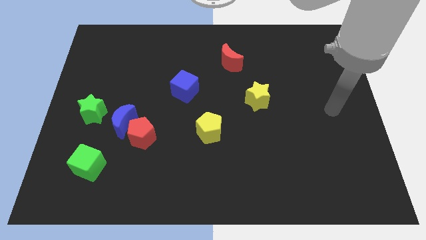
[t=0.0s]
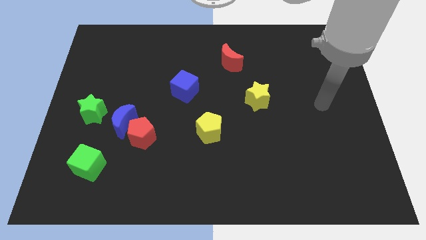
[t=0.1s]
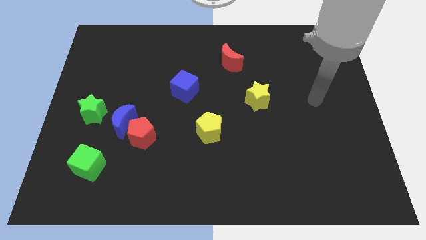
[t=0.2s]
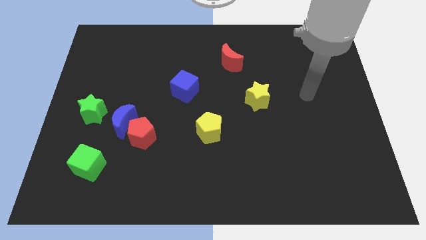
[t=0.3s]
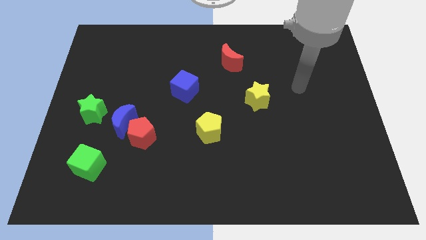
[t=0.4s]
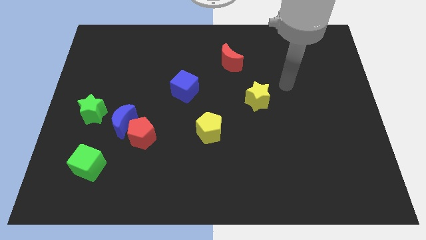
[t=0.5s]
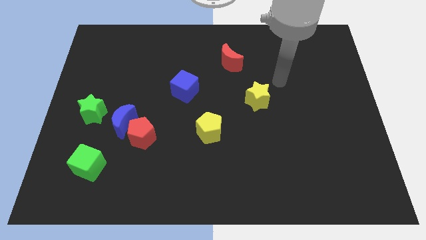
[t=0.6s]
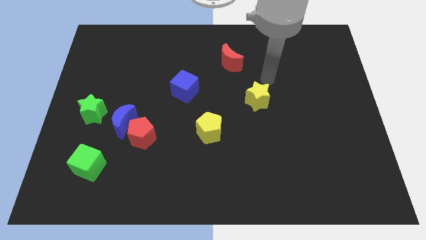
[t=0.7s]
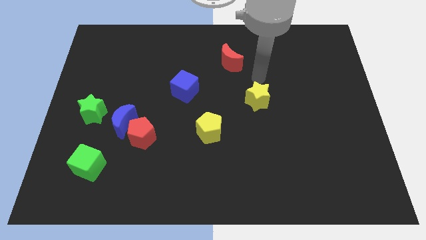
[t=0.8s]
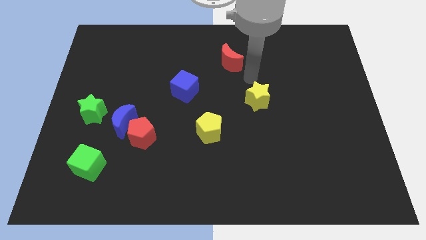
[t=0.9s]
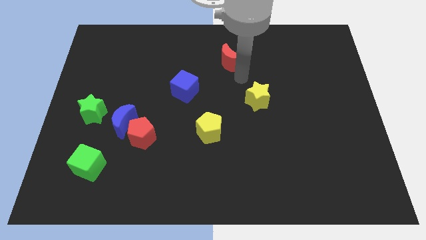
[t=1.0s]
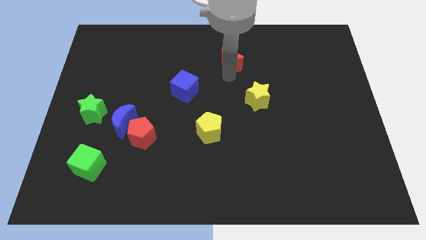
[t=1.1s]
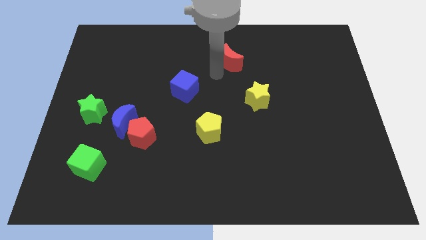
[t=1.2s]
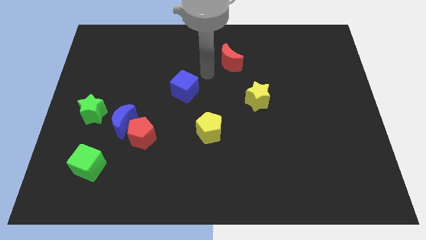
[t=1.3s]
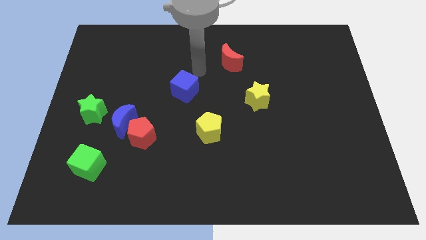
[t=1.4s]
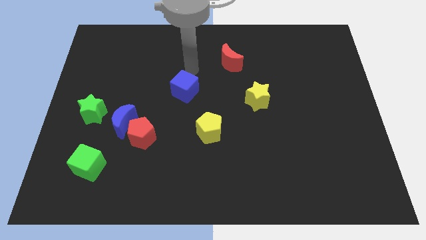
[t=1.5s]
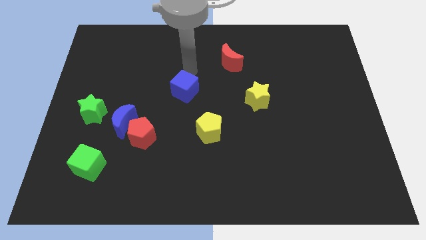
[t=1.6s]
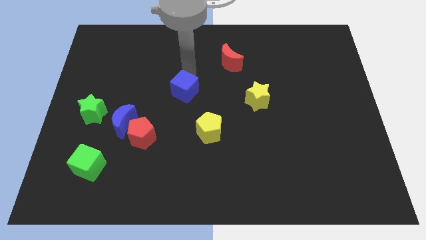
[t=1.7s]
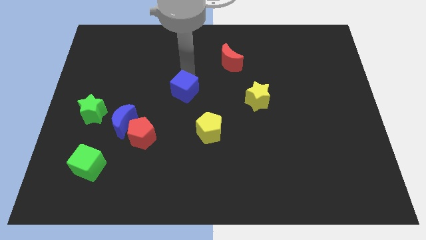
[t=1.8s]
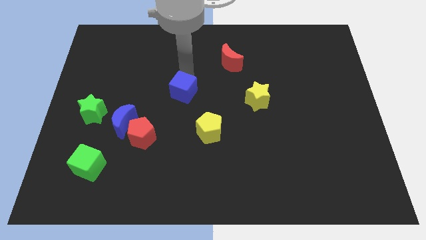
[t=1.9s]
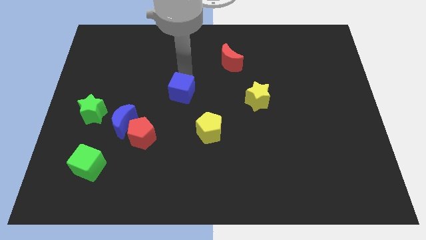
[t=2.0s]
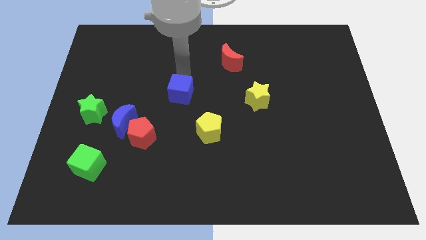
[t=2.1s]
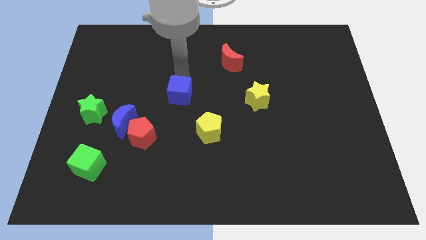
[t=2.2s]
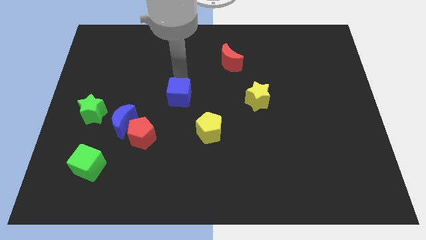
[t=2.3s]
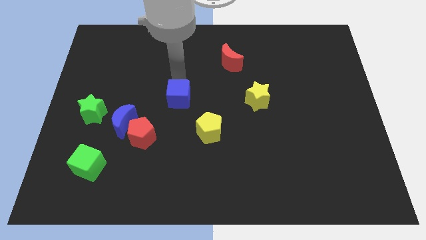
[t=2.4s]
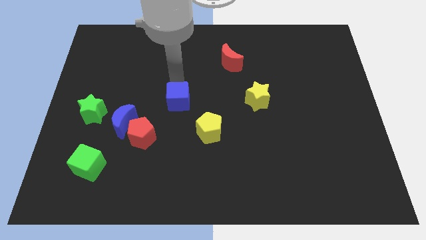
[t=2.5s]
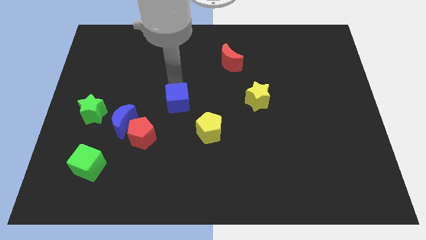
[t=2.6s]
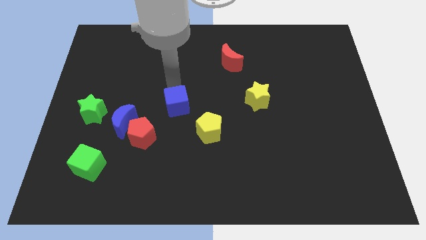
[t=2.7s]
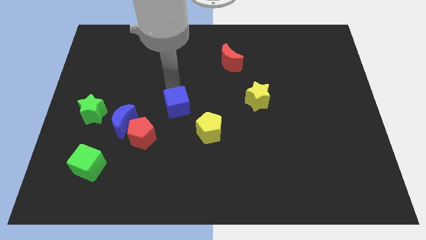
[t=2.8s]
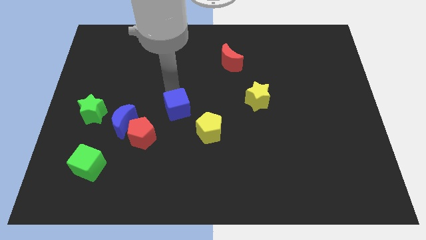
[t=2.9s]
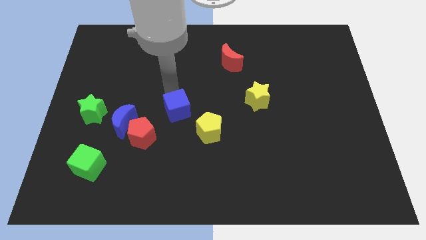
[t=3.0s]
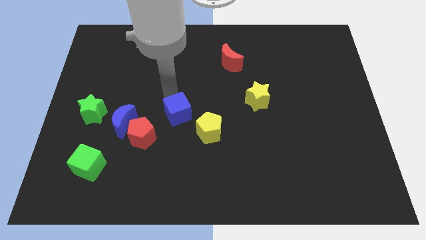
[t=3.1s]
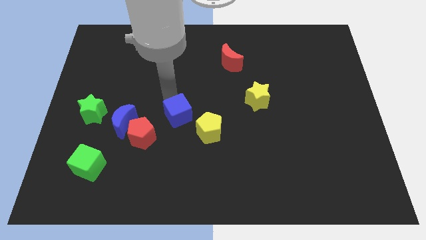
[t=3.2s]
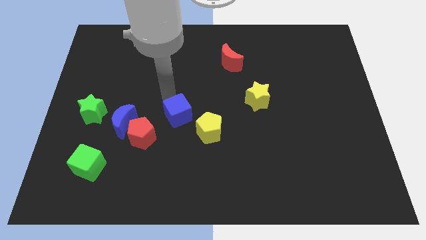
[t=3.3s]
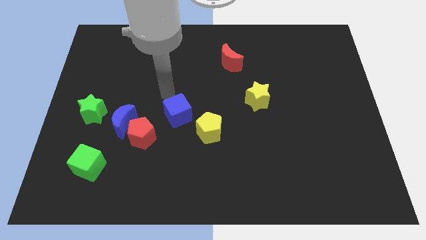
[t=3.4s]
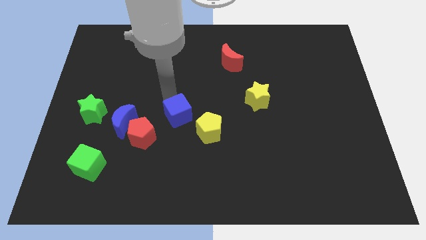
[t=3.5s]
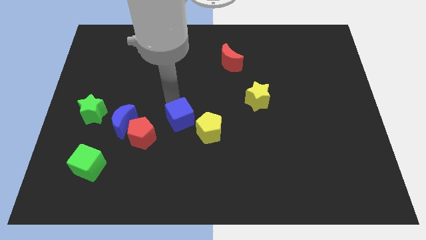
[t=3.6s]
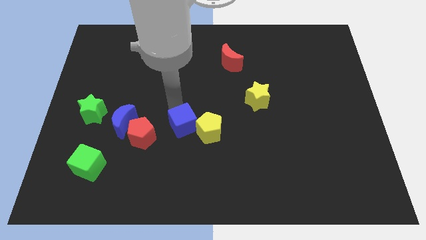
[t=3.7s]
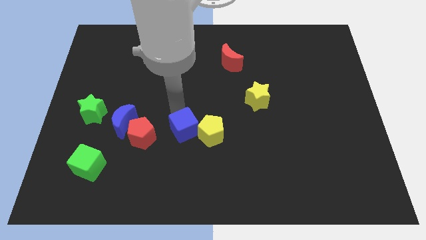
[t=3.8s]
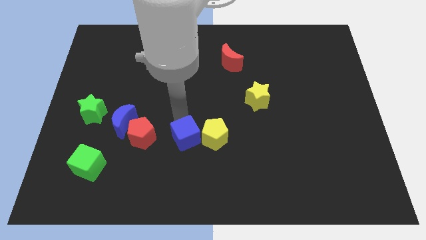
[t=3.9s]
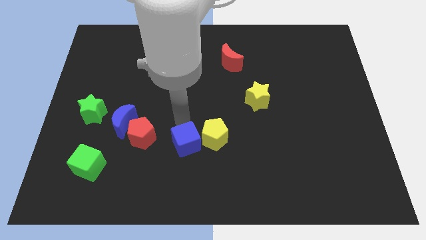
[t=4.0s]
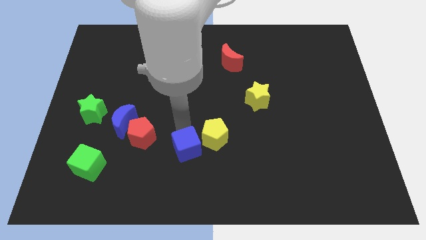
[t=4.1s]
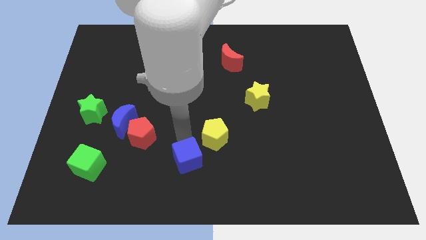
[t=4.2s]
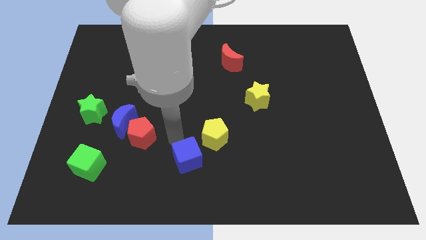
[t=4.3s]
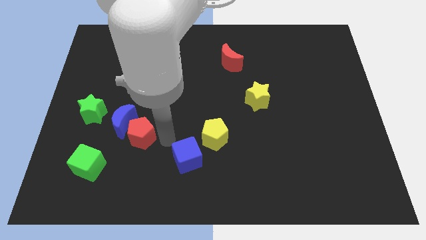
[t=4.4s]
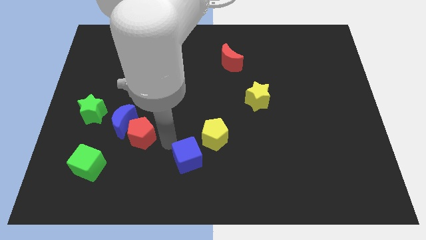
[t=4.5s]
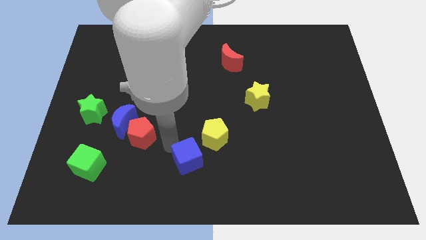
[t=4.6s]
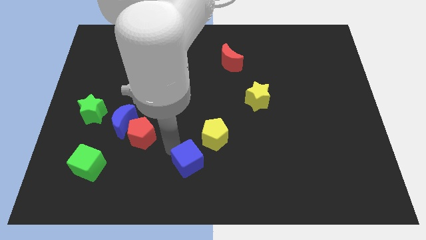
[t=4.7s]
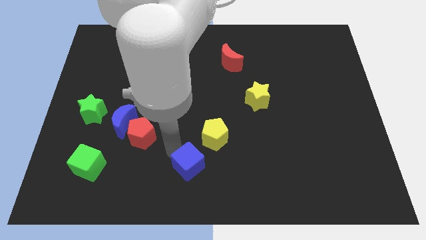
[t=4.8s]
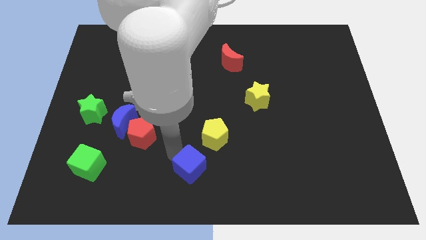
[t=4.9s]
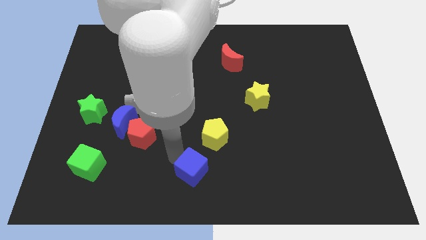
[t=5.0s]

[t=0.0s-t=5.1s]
put the blue cube to the bottom of the yellow pentagon

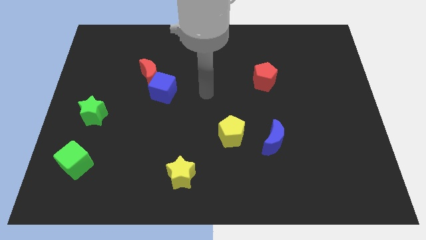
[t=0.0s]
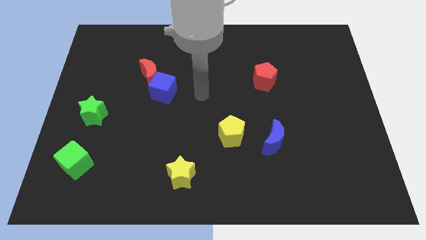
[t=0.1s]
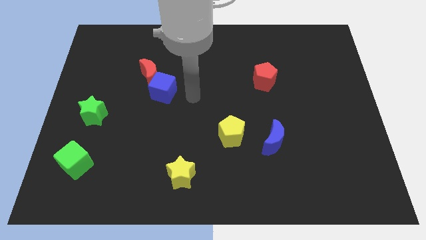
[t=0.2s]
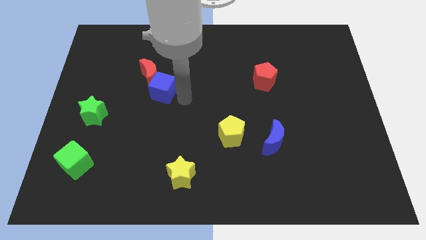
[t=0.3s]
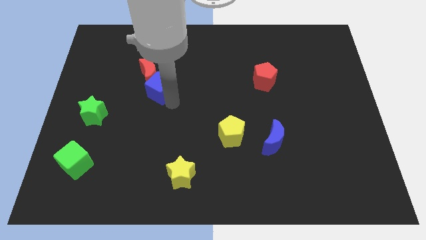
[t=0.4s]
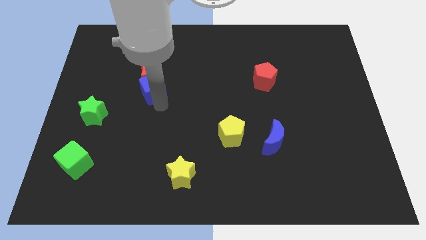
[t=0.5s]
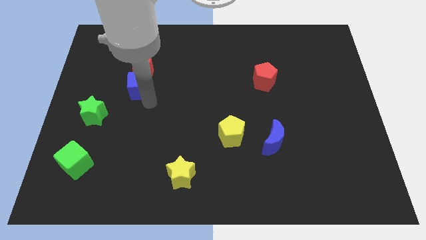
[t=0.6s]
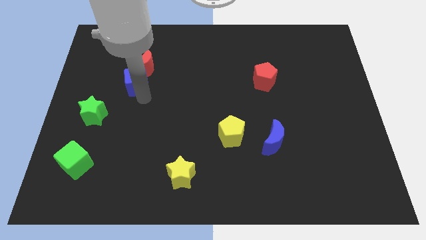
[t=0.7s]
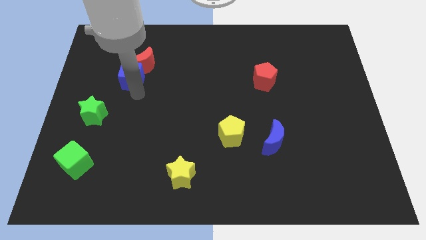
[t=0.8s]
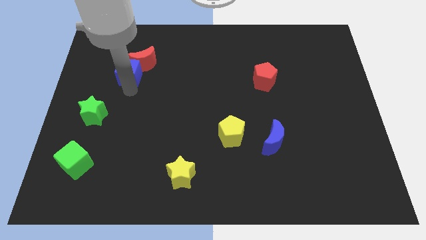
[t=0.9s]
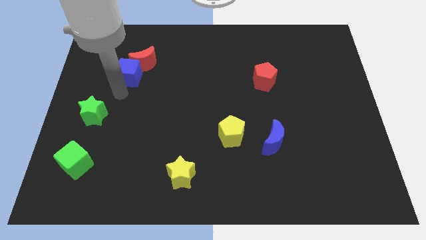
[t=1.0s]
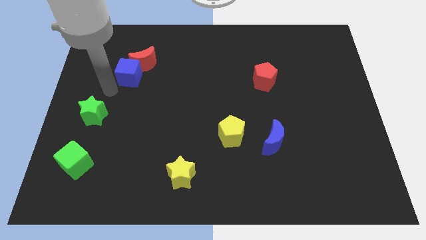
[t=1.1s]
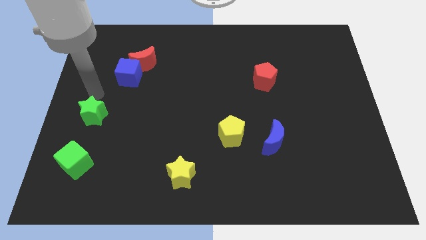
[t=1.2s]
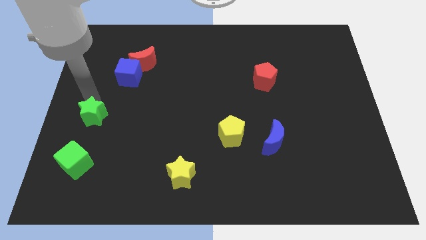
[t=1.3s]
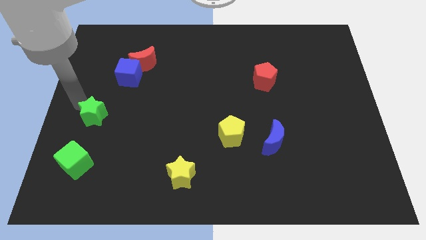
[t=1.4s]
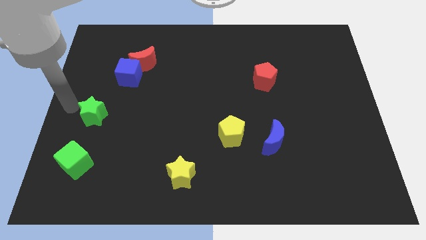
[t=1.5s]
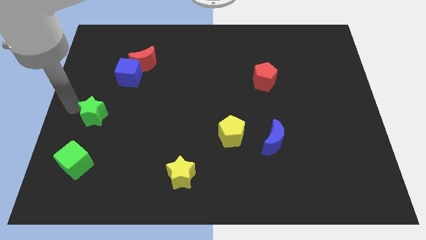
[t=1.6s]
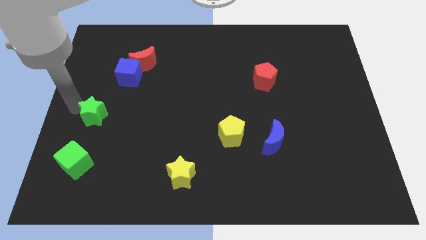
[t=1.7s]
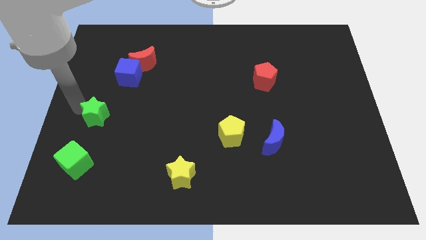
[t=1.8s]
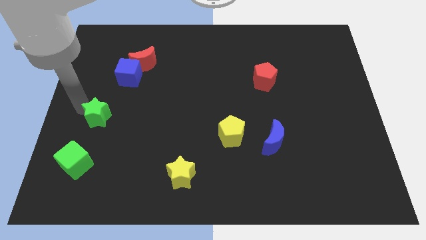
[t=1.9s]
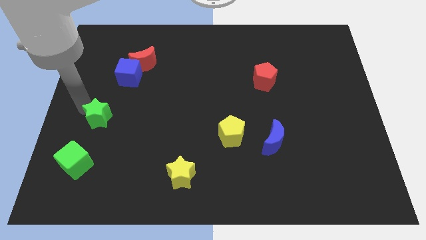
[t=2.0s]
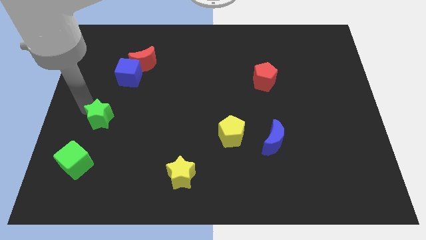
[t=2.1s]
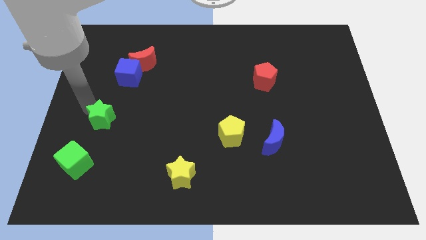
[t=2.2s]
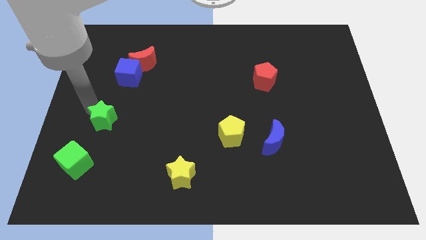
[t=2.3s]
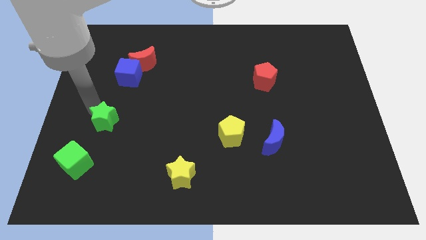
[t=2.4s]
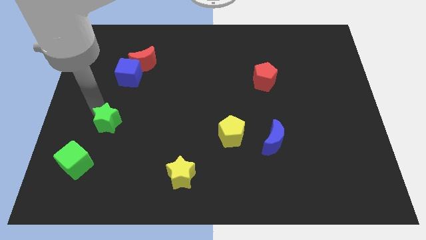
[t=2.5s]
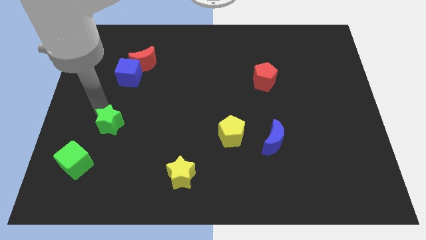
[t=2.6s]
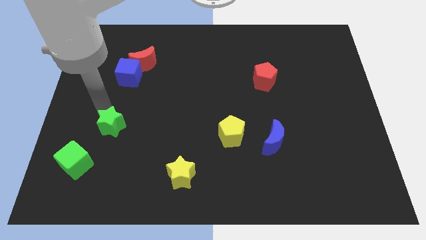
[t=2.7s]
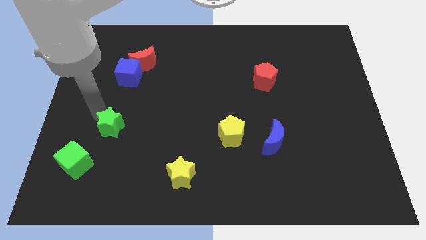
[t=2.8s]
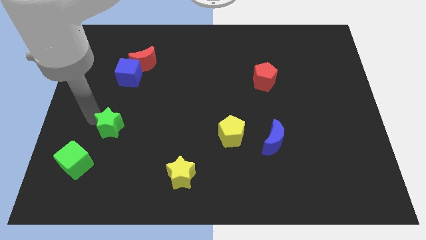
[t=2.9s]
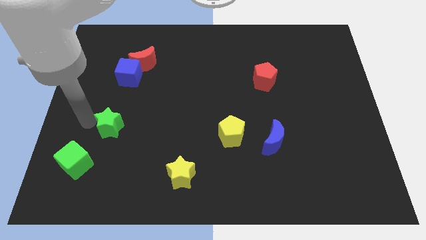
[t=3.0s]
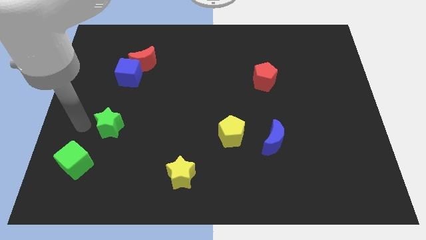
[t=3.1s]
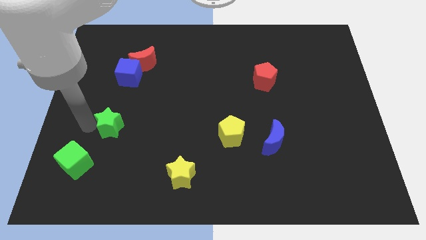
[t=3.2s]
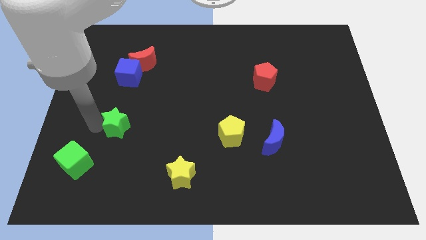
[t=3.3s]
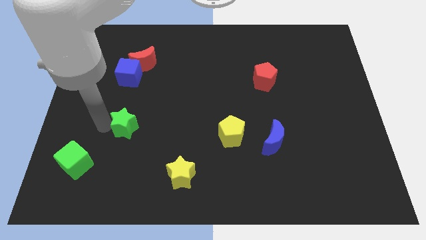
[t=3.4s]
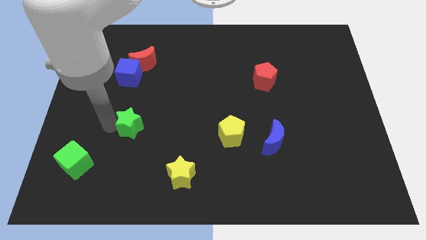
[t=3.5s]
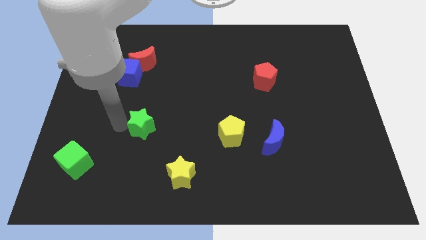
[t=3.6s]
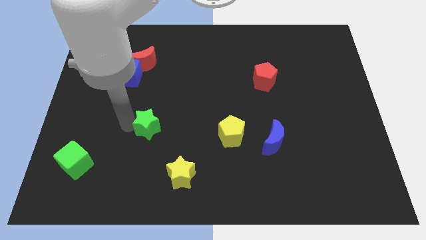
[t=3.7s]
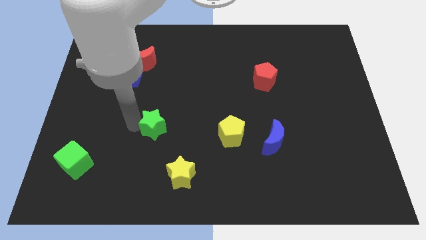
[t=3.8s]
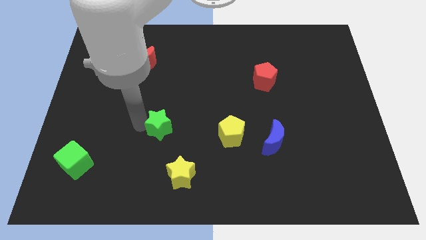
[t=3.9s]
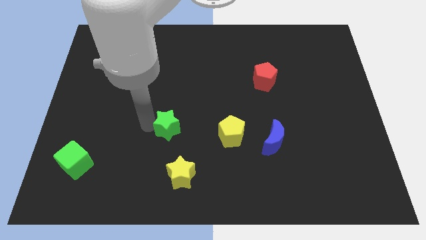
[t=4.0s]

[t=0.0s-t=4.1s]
put the green star to the top of the yellow star
